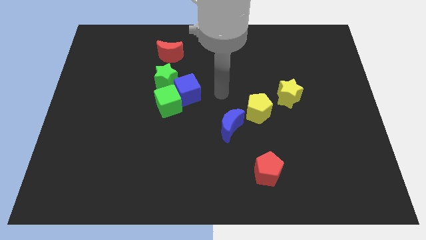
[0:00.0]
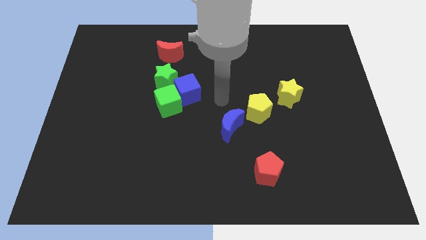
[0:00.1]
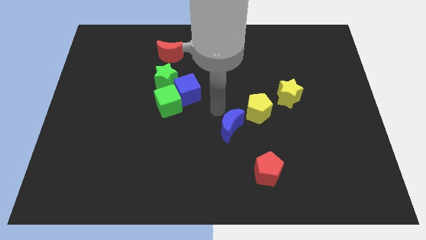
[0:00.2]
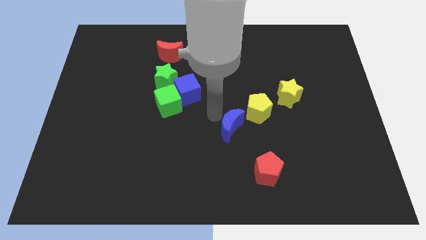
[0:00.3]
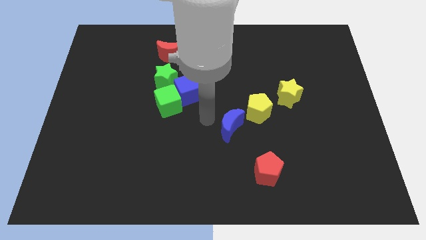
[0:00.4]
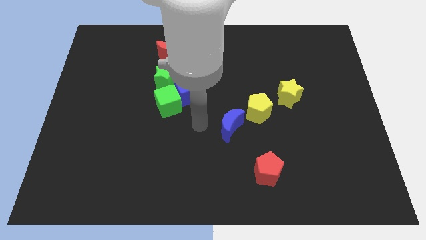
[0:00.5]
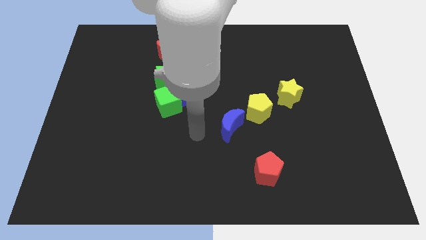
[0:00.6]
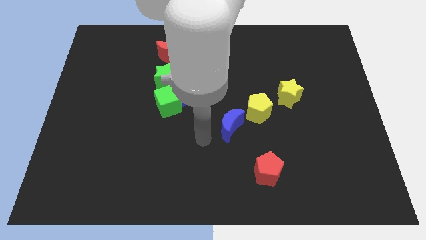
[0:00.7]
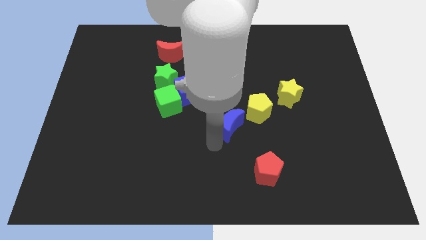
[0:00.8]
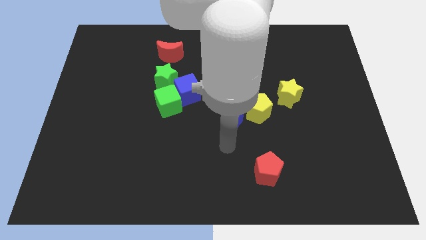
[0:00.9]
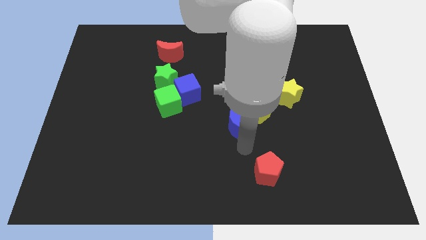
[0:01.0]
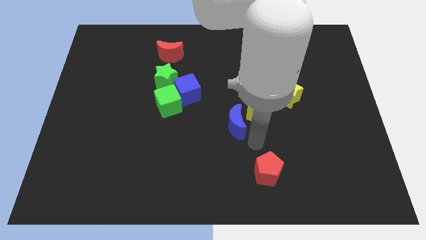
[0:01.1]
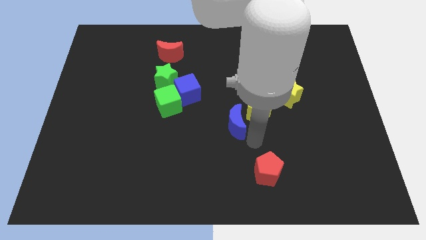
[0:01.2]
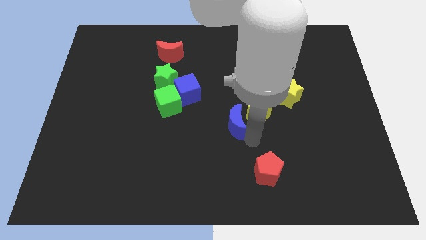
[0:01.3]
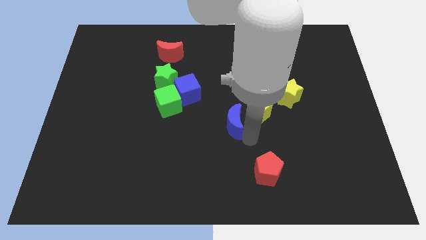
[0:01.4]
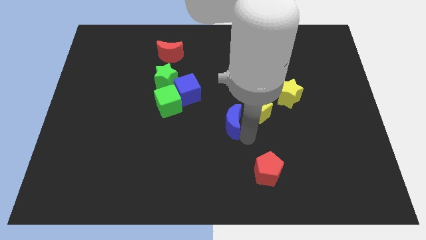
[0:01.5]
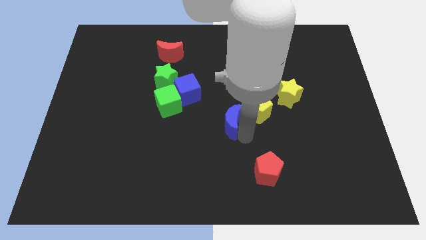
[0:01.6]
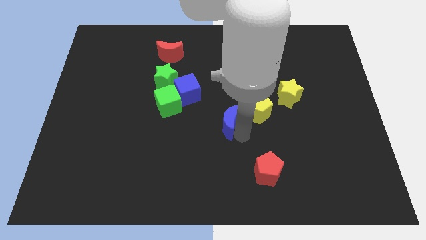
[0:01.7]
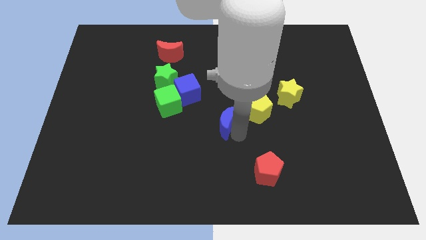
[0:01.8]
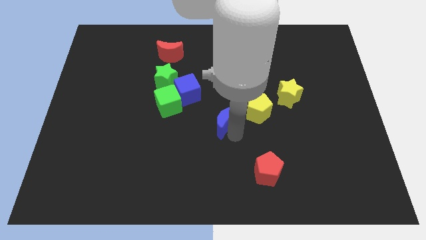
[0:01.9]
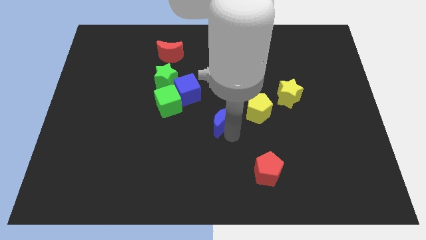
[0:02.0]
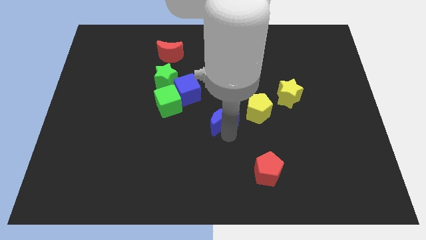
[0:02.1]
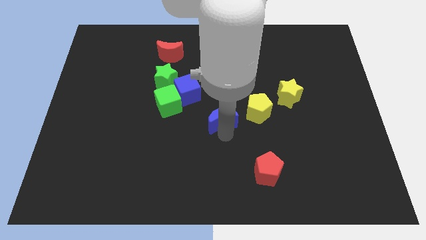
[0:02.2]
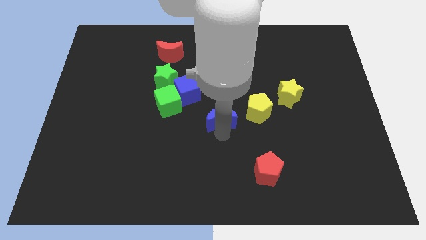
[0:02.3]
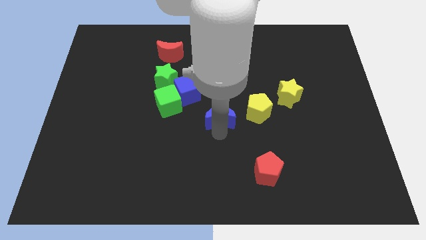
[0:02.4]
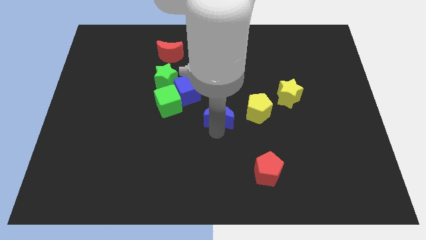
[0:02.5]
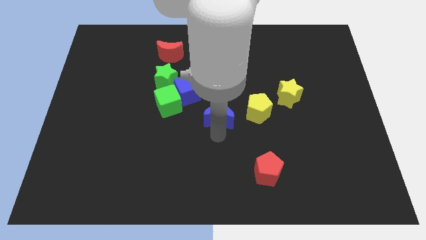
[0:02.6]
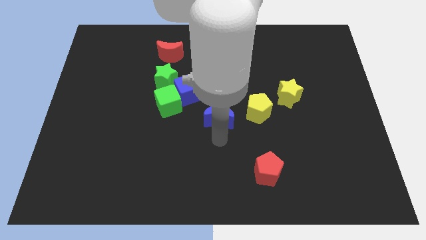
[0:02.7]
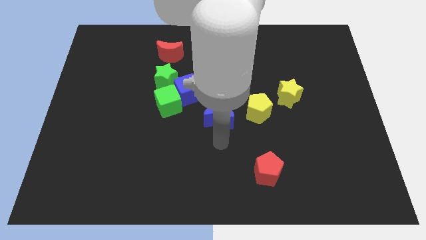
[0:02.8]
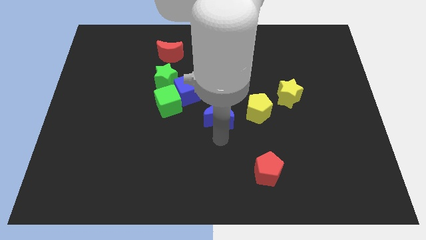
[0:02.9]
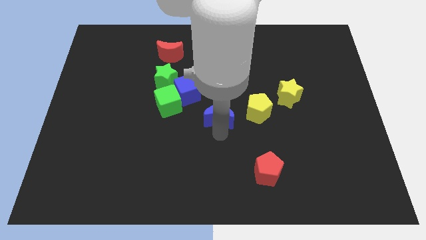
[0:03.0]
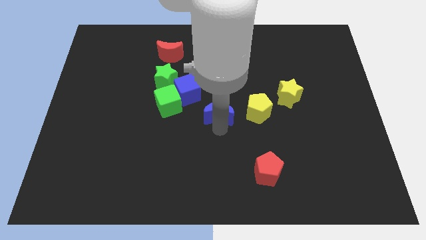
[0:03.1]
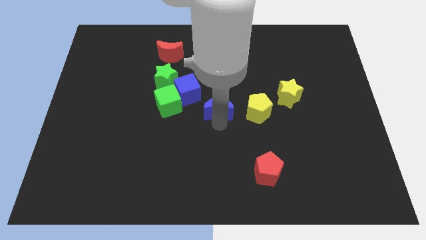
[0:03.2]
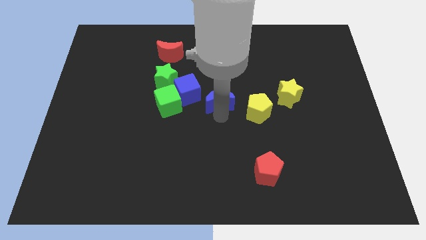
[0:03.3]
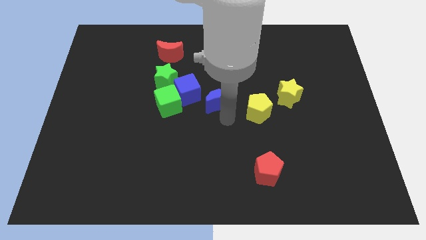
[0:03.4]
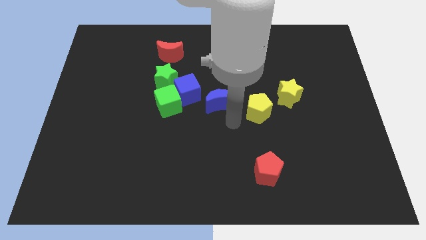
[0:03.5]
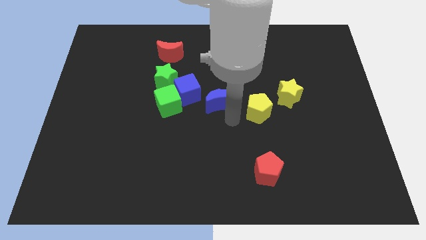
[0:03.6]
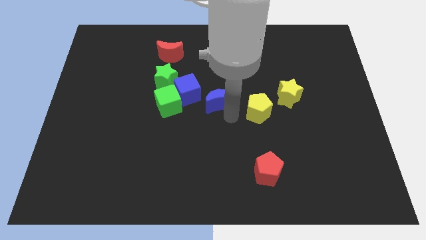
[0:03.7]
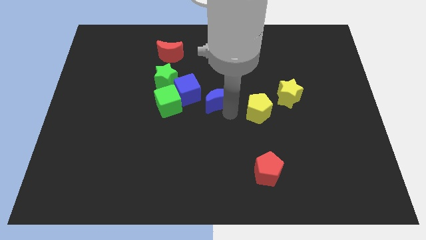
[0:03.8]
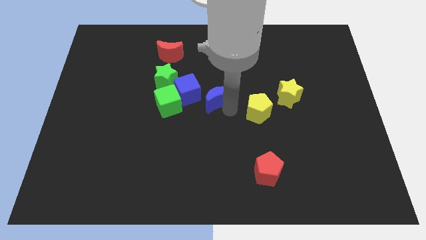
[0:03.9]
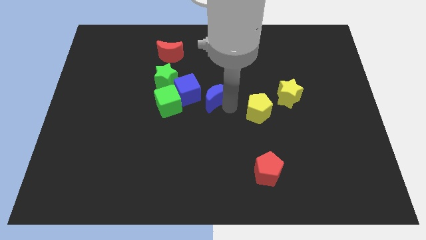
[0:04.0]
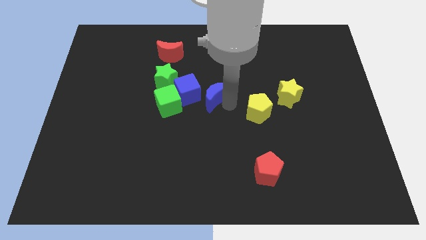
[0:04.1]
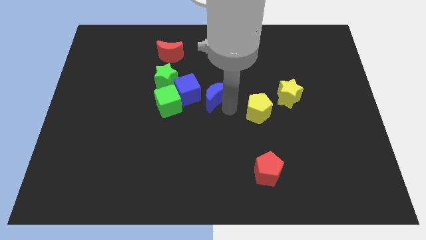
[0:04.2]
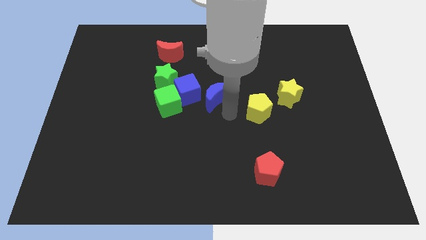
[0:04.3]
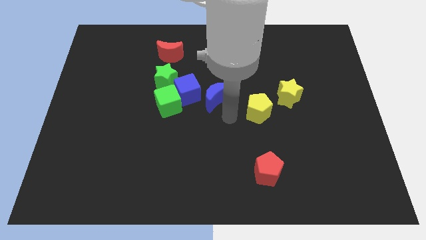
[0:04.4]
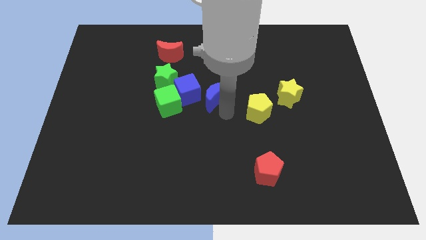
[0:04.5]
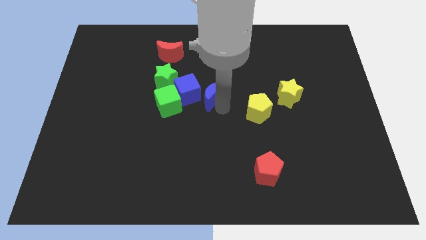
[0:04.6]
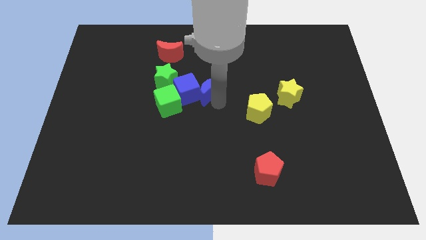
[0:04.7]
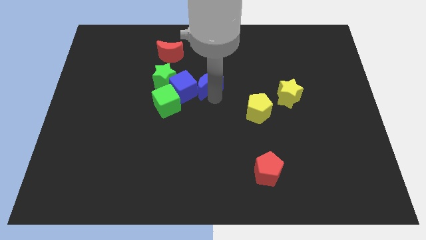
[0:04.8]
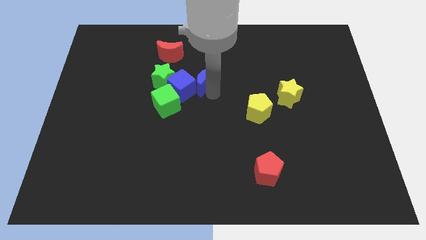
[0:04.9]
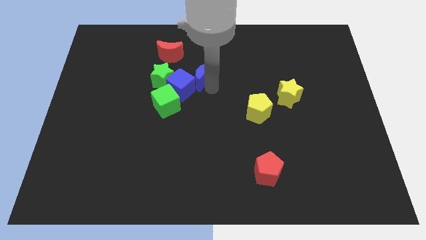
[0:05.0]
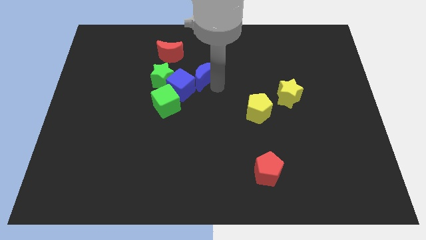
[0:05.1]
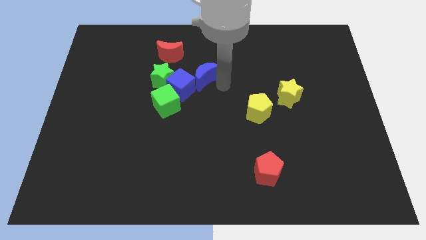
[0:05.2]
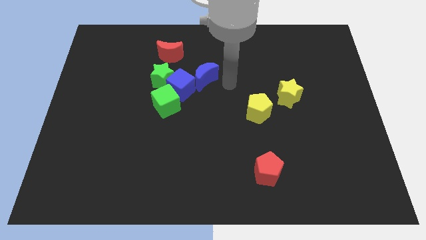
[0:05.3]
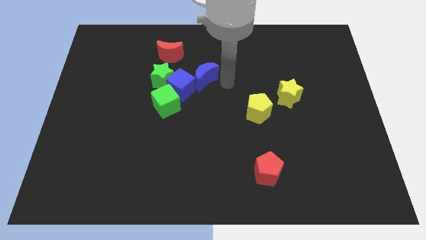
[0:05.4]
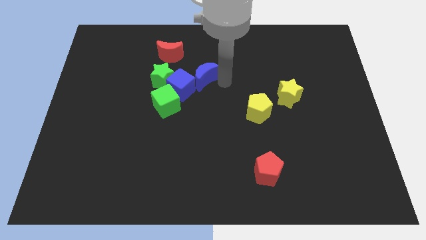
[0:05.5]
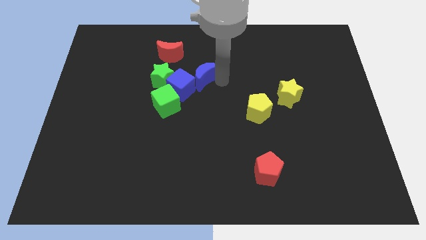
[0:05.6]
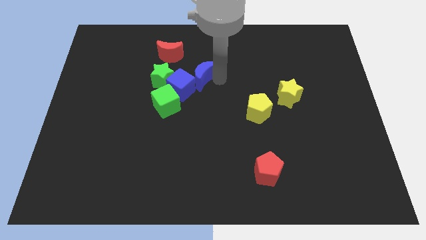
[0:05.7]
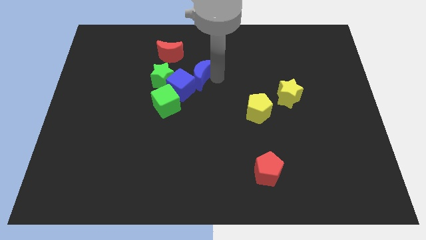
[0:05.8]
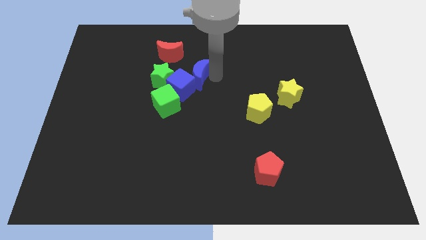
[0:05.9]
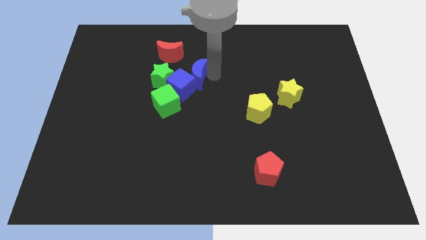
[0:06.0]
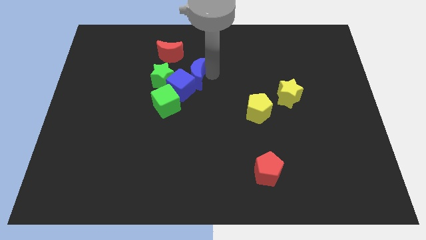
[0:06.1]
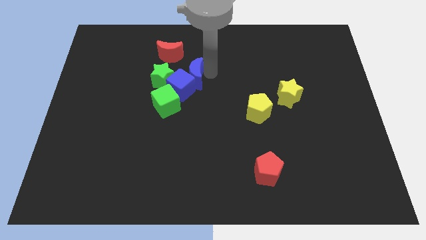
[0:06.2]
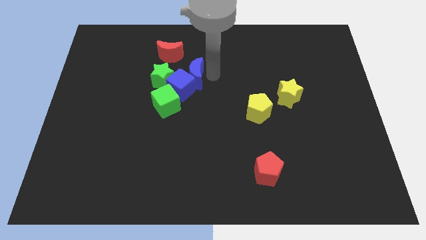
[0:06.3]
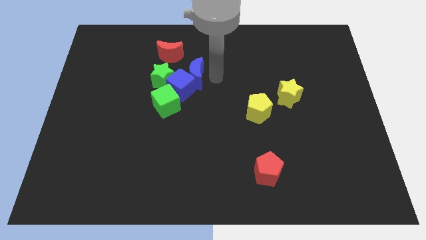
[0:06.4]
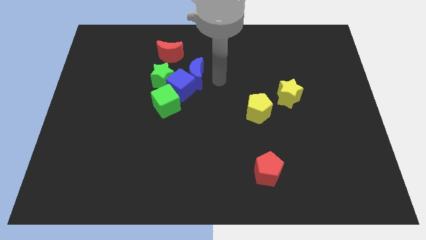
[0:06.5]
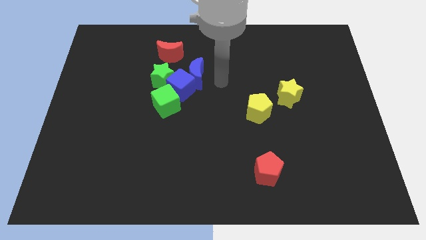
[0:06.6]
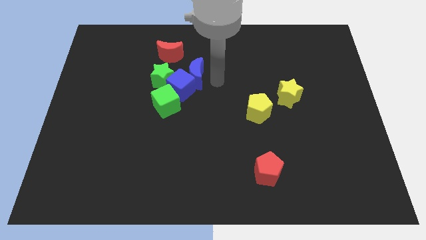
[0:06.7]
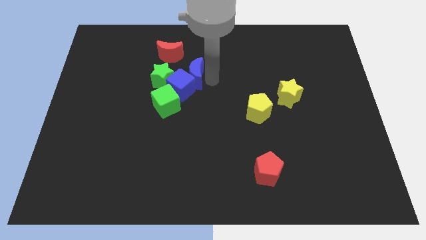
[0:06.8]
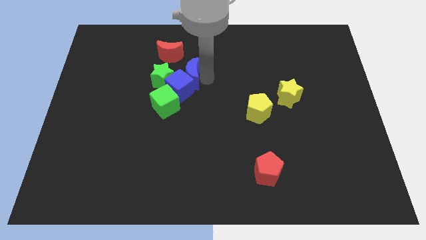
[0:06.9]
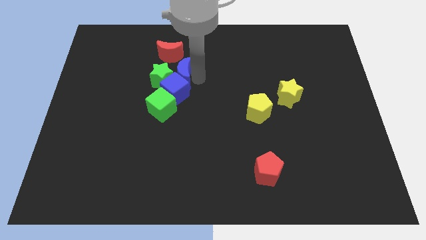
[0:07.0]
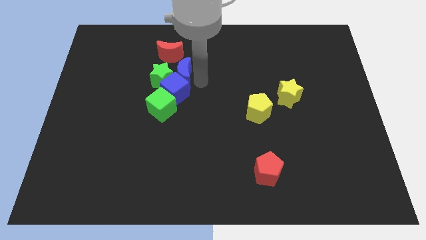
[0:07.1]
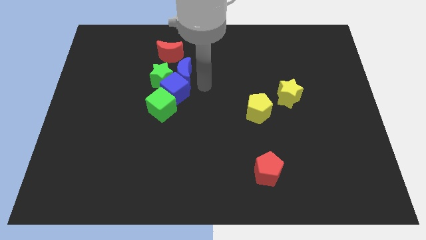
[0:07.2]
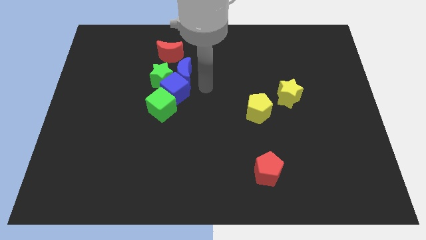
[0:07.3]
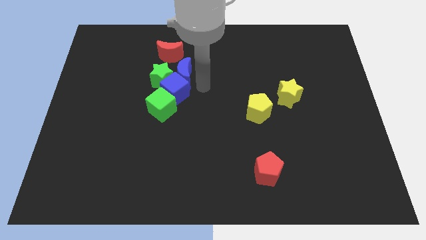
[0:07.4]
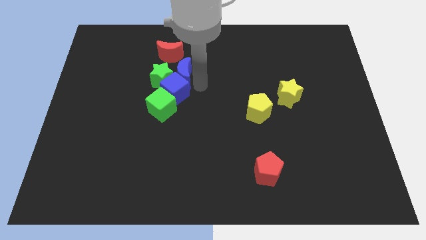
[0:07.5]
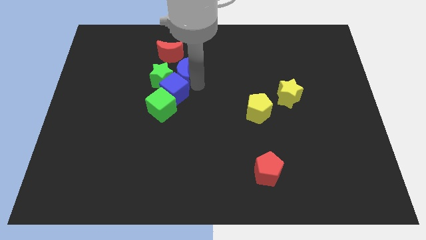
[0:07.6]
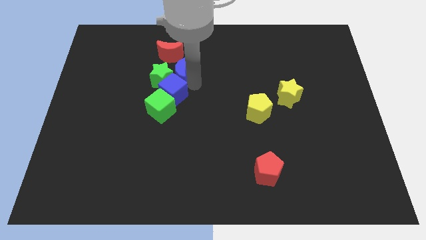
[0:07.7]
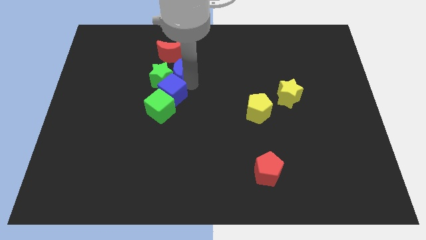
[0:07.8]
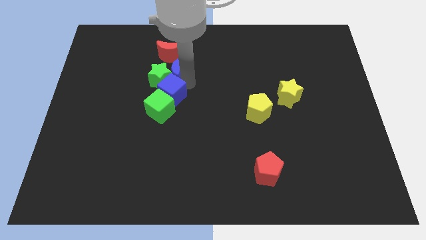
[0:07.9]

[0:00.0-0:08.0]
move the blue moon diagonally upwards and to the left
